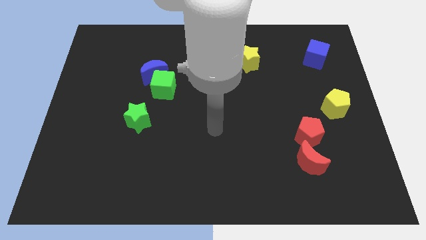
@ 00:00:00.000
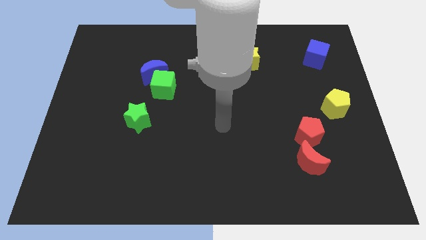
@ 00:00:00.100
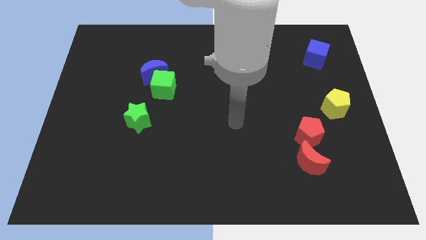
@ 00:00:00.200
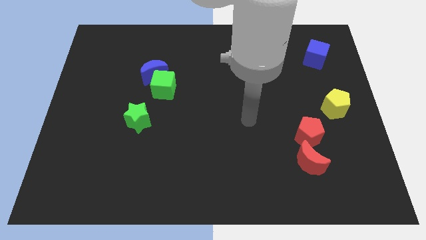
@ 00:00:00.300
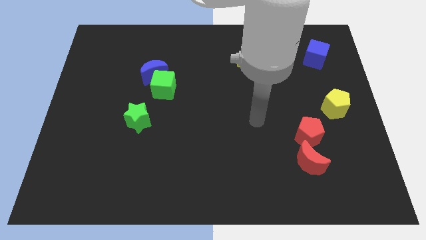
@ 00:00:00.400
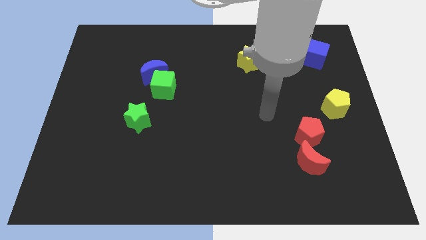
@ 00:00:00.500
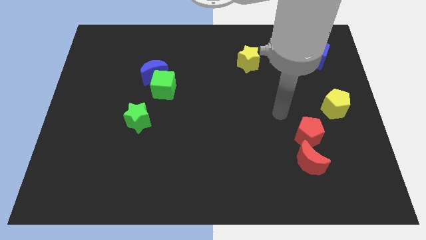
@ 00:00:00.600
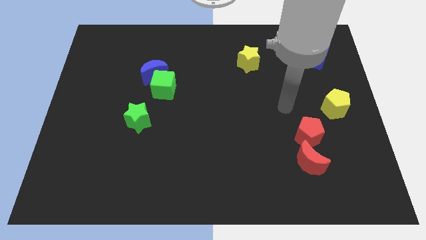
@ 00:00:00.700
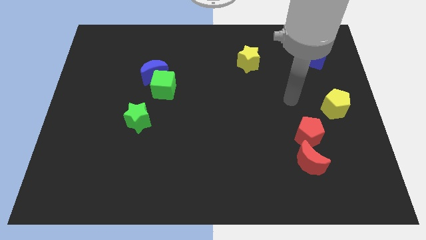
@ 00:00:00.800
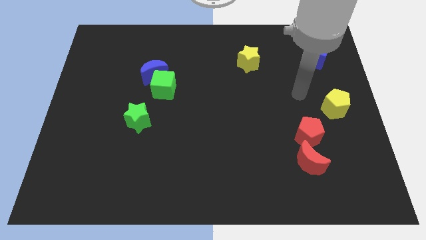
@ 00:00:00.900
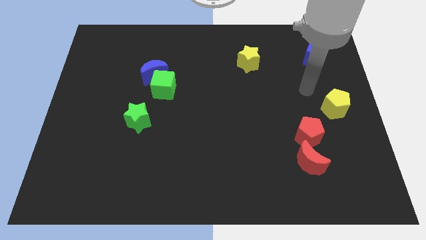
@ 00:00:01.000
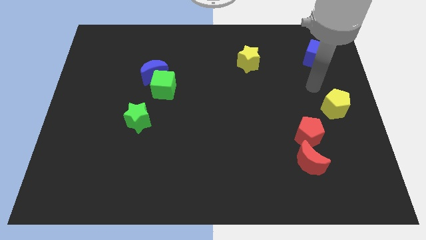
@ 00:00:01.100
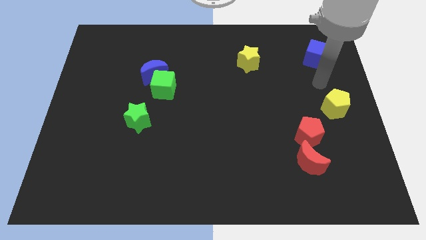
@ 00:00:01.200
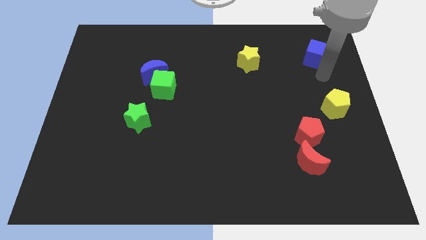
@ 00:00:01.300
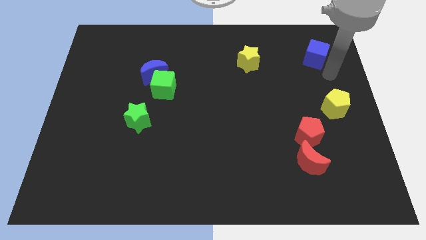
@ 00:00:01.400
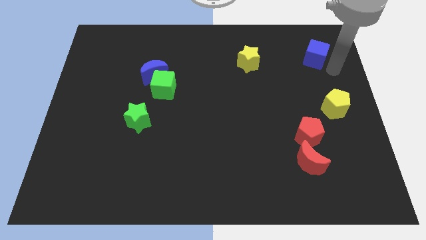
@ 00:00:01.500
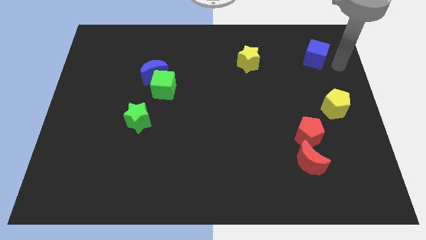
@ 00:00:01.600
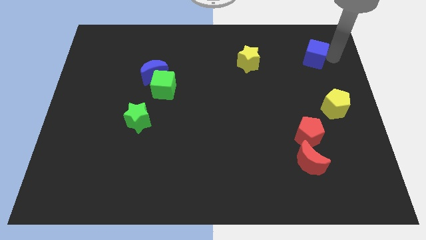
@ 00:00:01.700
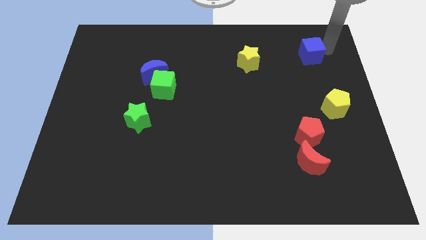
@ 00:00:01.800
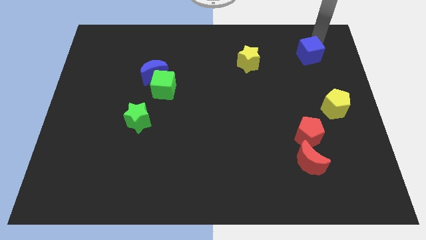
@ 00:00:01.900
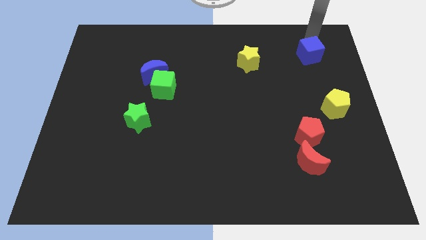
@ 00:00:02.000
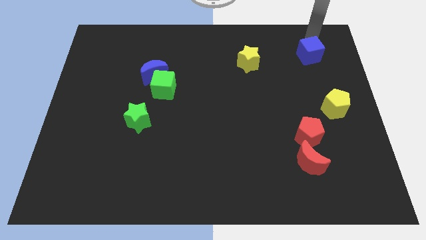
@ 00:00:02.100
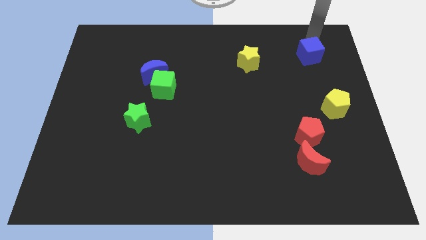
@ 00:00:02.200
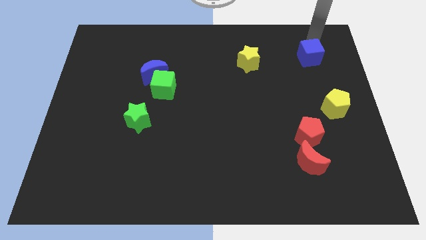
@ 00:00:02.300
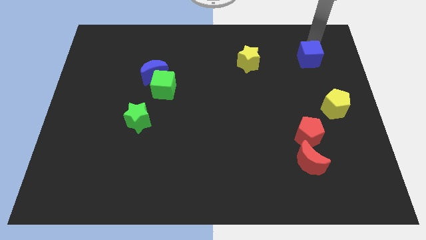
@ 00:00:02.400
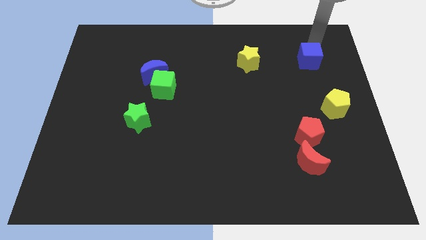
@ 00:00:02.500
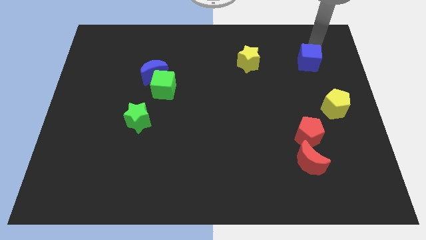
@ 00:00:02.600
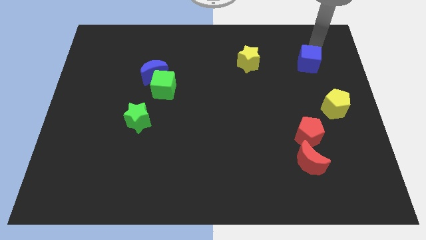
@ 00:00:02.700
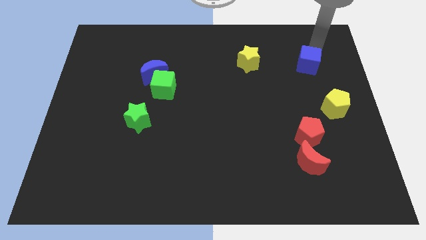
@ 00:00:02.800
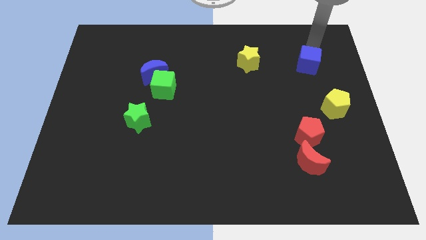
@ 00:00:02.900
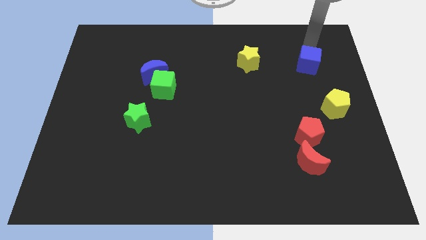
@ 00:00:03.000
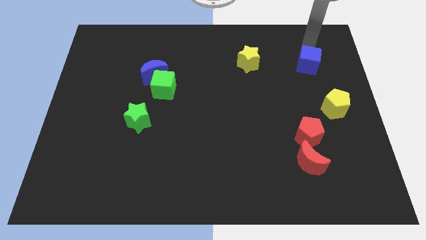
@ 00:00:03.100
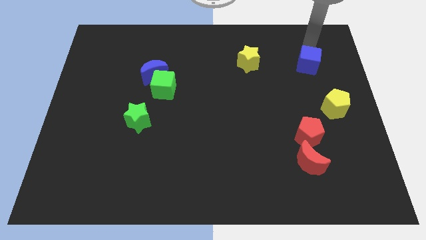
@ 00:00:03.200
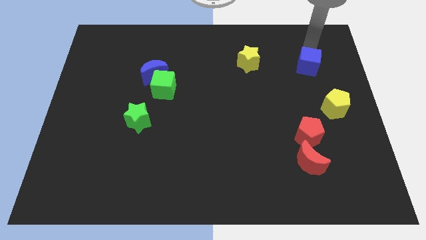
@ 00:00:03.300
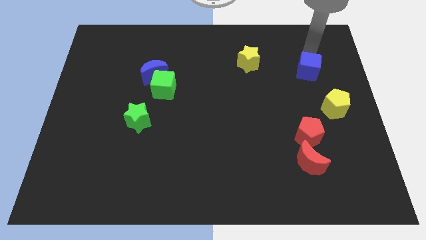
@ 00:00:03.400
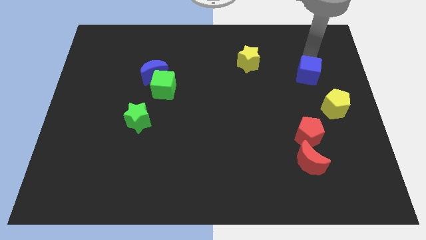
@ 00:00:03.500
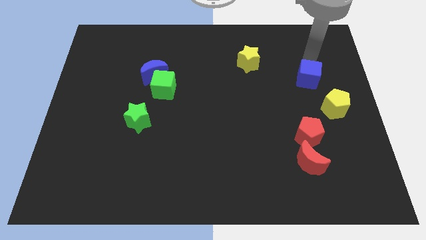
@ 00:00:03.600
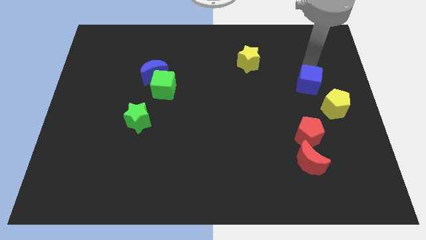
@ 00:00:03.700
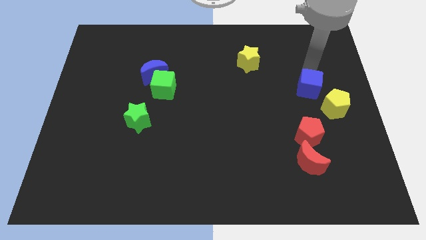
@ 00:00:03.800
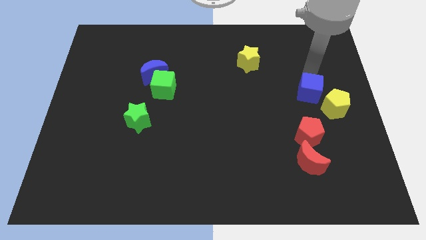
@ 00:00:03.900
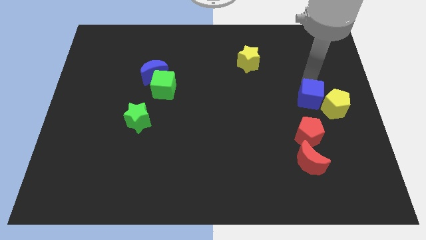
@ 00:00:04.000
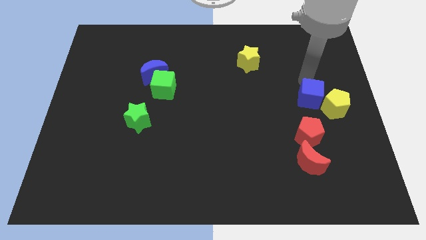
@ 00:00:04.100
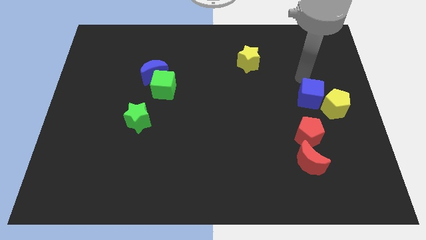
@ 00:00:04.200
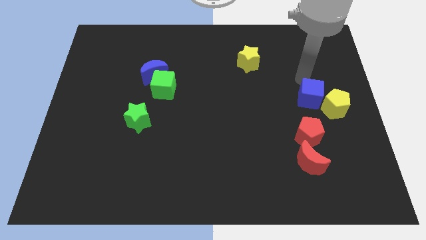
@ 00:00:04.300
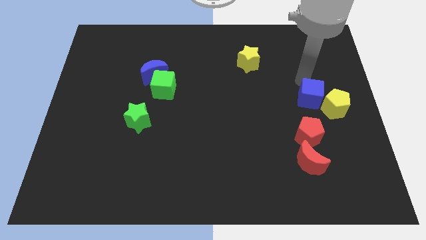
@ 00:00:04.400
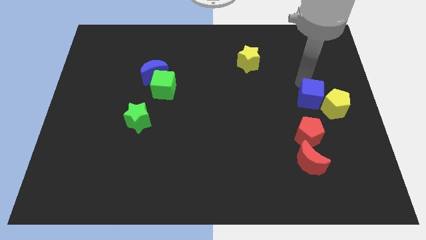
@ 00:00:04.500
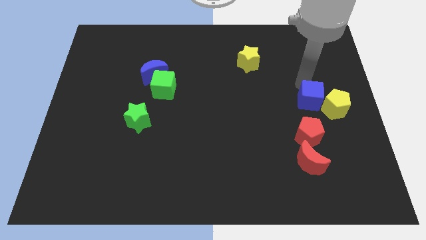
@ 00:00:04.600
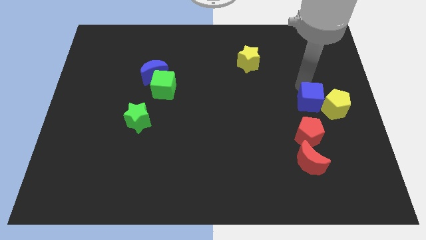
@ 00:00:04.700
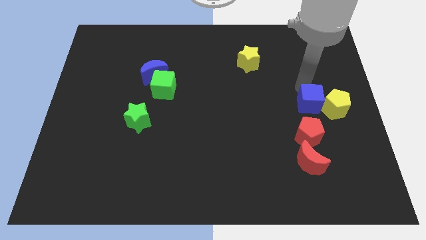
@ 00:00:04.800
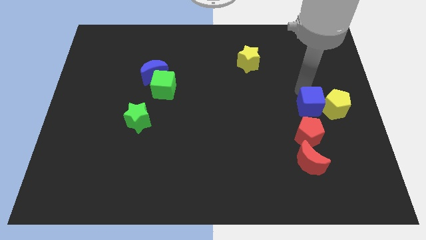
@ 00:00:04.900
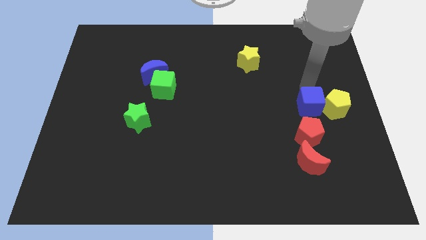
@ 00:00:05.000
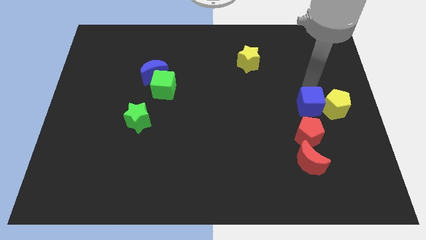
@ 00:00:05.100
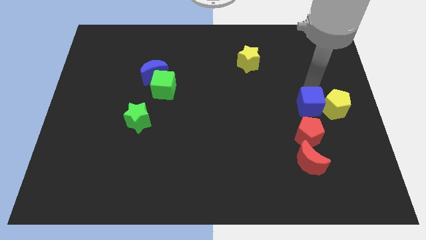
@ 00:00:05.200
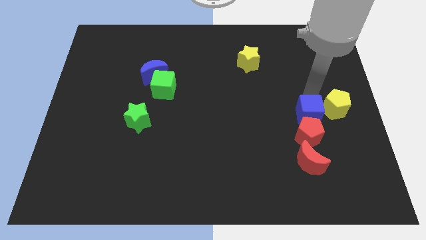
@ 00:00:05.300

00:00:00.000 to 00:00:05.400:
slide the blue cube close to the red pentagon

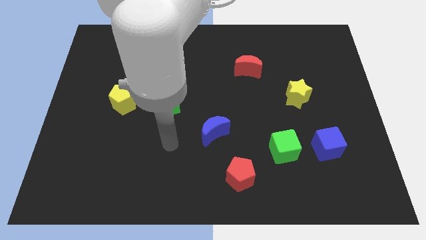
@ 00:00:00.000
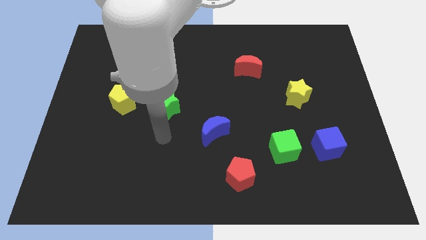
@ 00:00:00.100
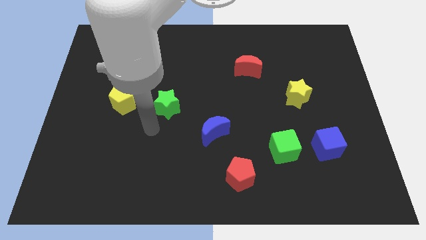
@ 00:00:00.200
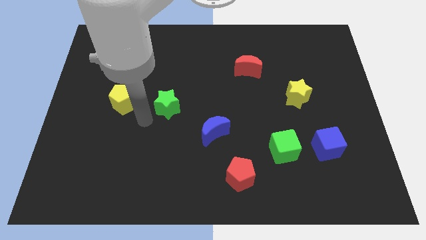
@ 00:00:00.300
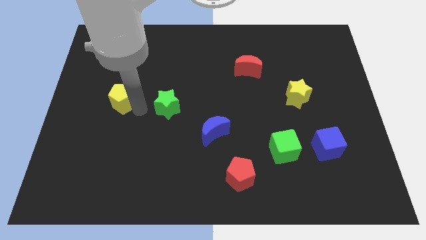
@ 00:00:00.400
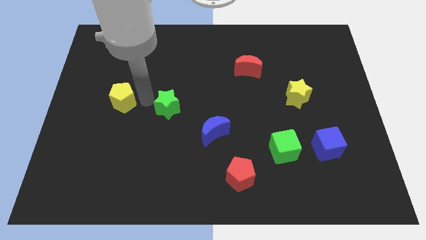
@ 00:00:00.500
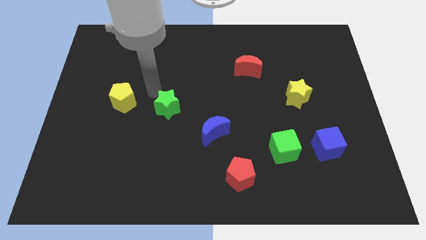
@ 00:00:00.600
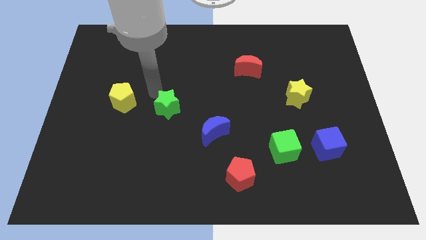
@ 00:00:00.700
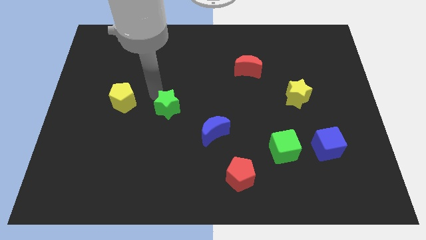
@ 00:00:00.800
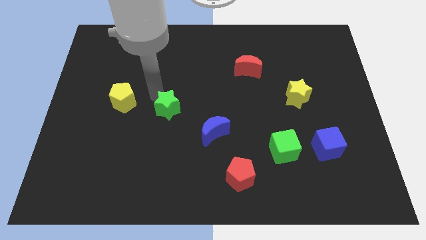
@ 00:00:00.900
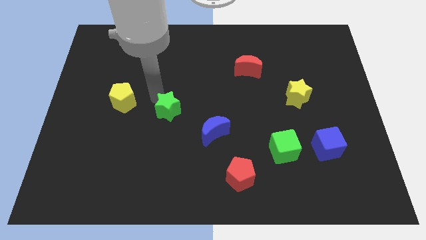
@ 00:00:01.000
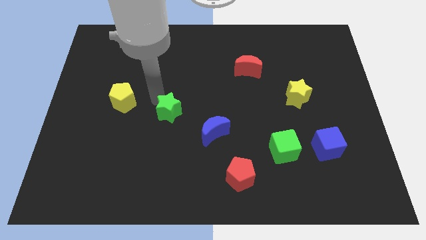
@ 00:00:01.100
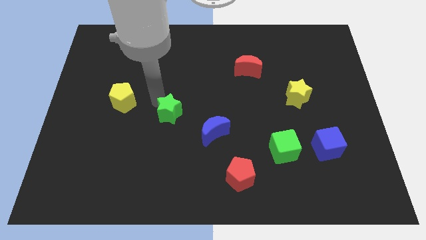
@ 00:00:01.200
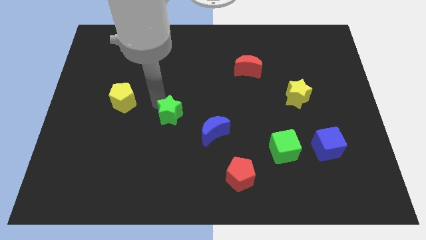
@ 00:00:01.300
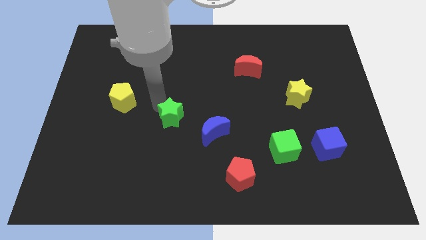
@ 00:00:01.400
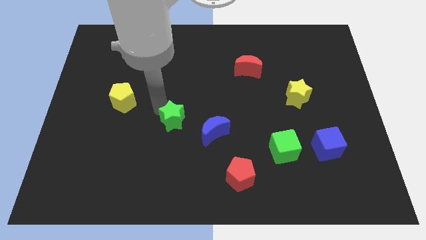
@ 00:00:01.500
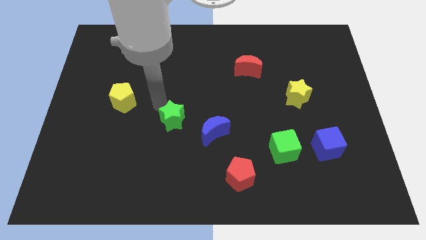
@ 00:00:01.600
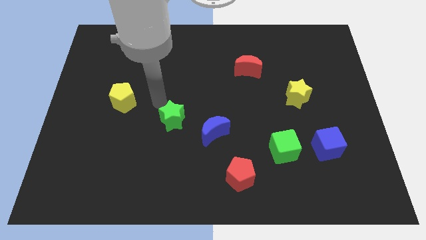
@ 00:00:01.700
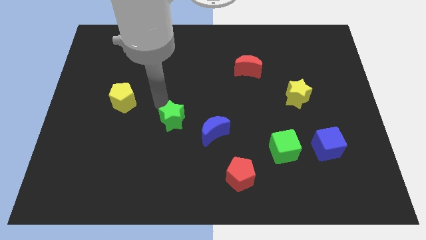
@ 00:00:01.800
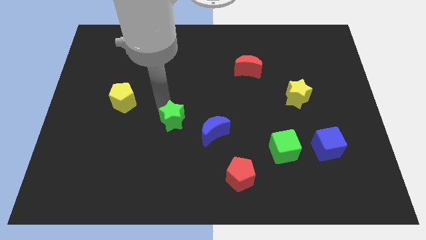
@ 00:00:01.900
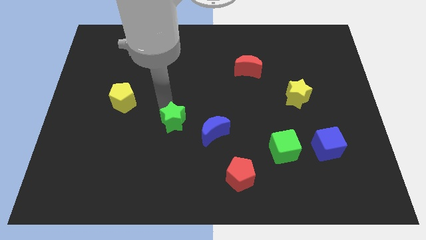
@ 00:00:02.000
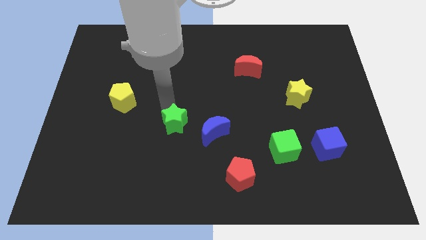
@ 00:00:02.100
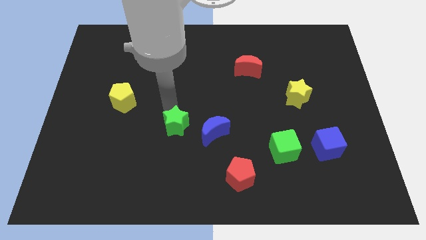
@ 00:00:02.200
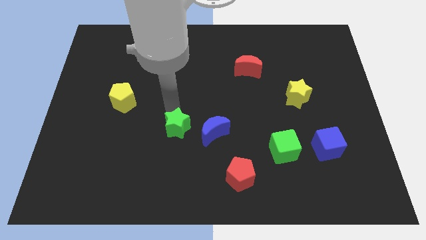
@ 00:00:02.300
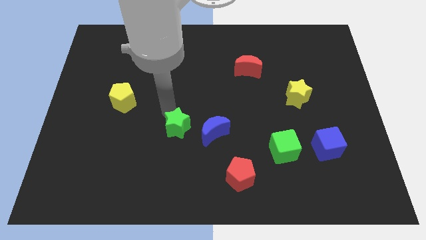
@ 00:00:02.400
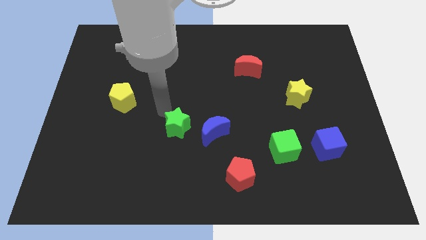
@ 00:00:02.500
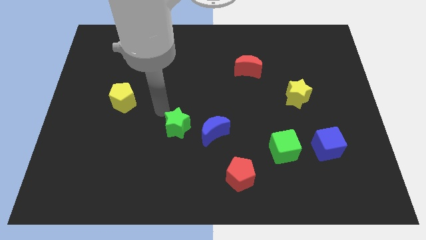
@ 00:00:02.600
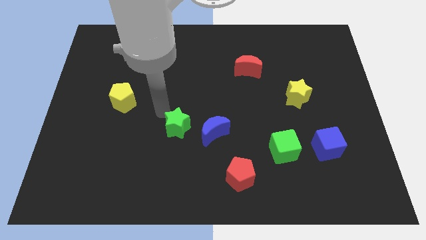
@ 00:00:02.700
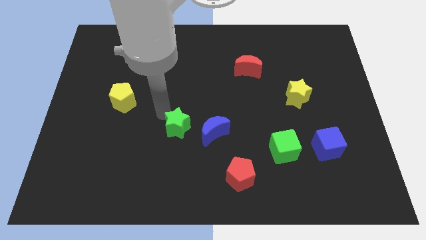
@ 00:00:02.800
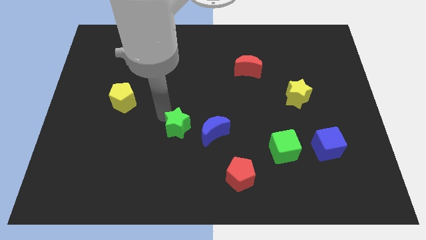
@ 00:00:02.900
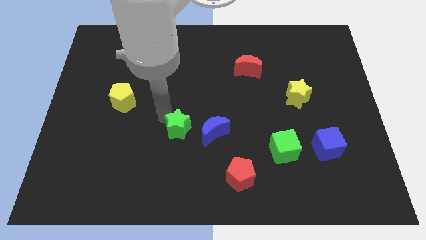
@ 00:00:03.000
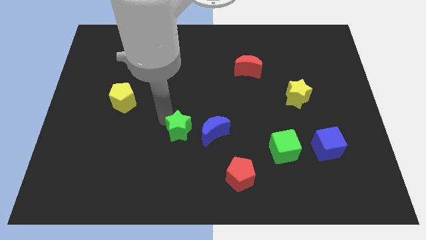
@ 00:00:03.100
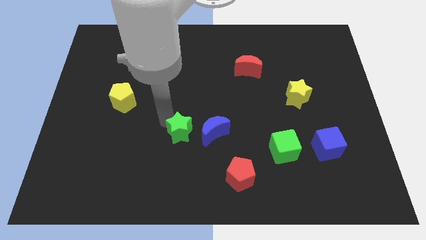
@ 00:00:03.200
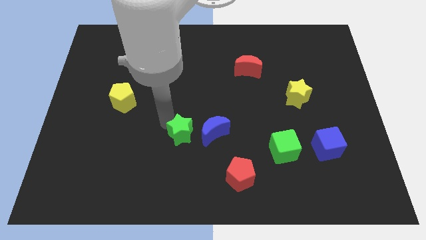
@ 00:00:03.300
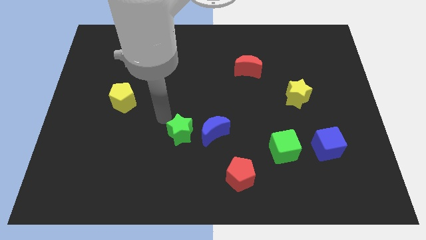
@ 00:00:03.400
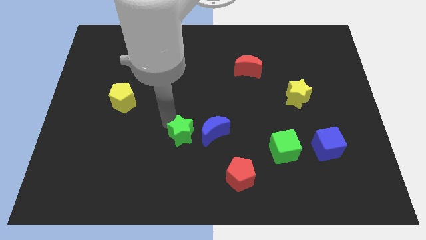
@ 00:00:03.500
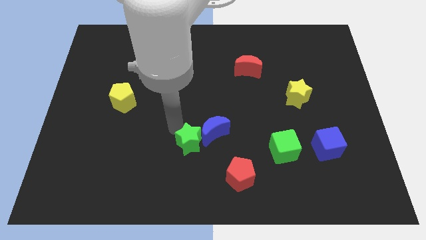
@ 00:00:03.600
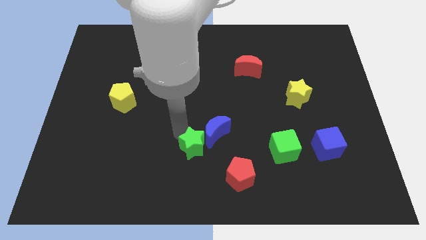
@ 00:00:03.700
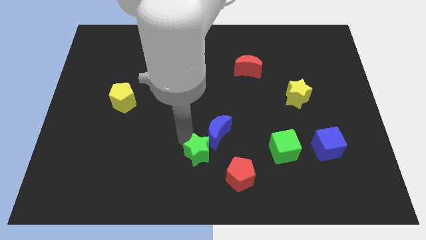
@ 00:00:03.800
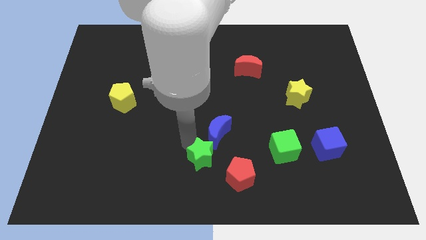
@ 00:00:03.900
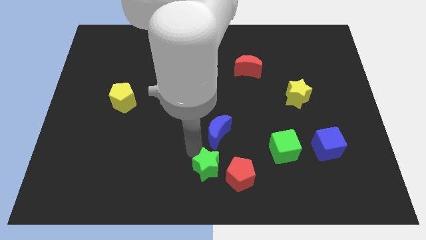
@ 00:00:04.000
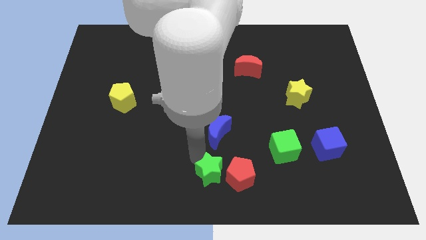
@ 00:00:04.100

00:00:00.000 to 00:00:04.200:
push the green star next to the red pentagon
